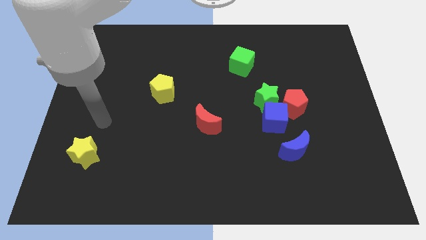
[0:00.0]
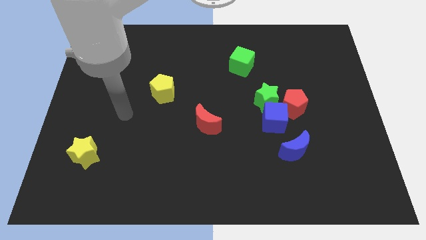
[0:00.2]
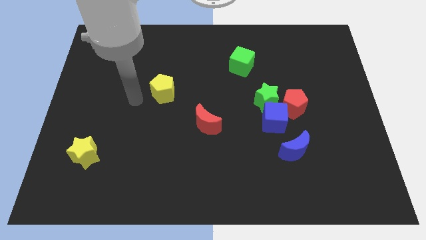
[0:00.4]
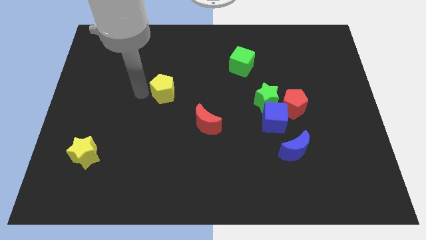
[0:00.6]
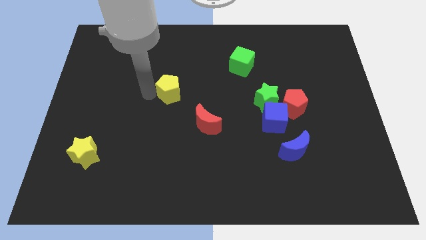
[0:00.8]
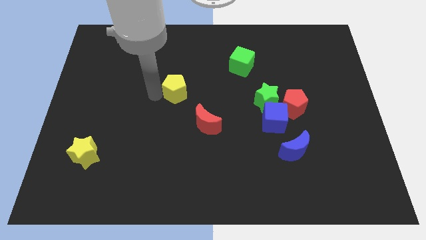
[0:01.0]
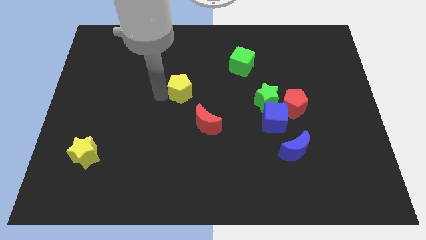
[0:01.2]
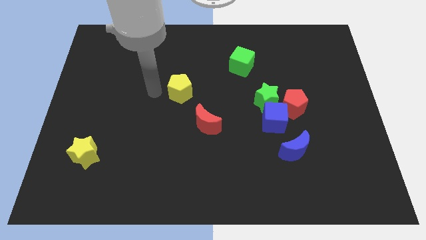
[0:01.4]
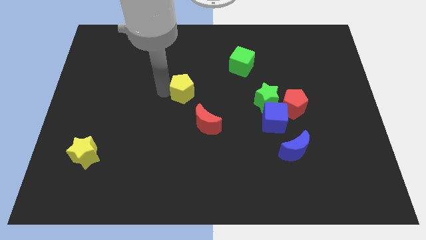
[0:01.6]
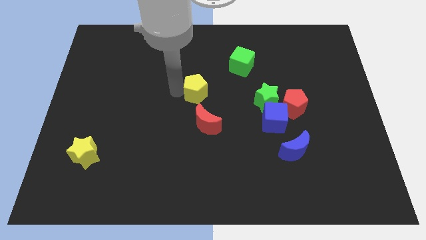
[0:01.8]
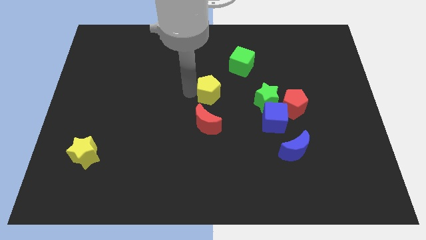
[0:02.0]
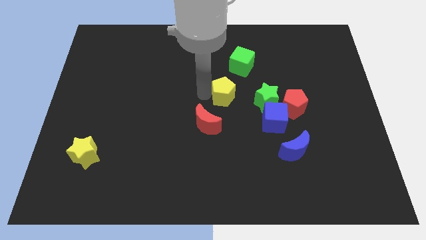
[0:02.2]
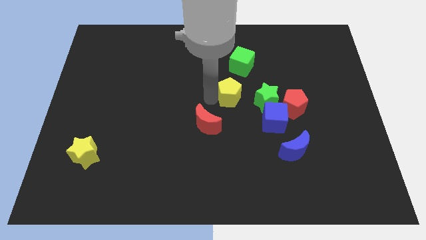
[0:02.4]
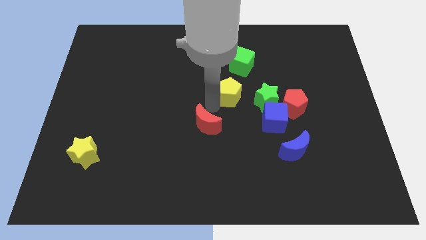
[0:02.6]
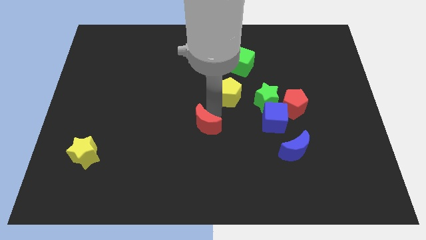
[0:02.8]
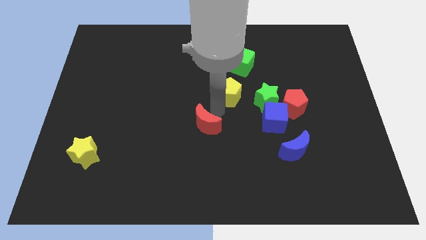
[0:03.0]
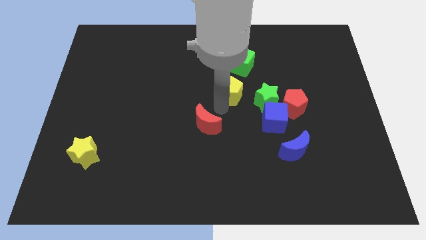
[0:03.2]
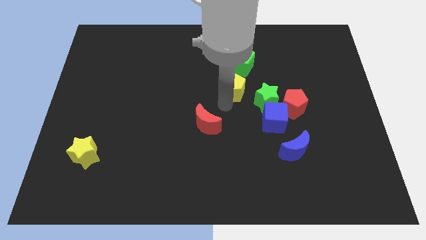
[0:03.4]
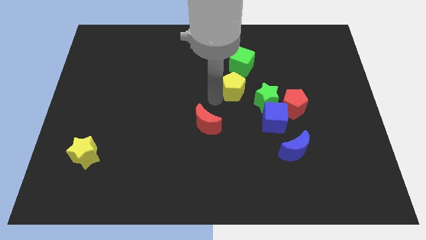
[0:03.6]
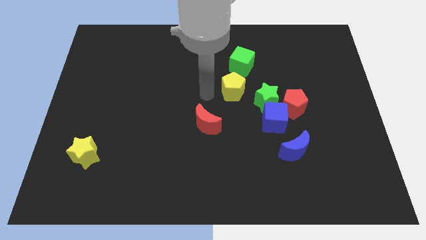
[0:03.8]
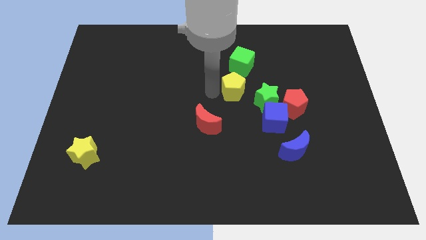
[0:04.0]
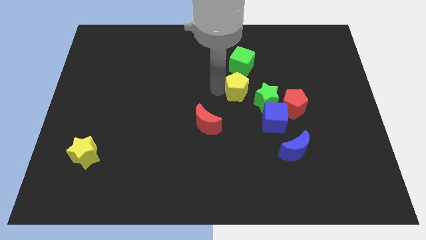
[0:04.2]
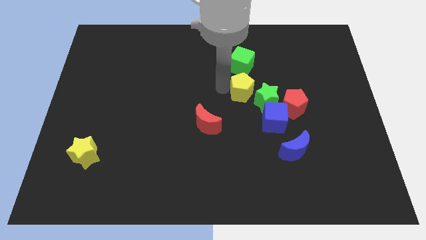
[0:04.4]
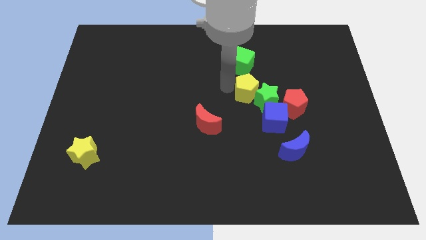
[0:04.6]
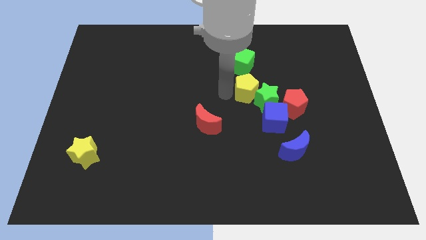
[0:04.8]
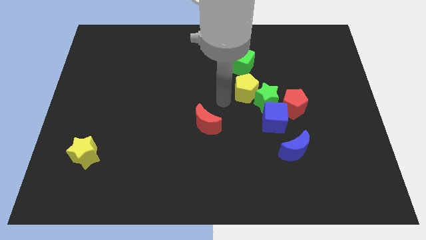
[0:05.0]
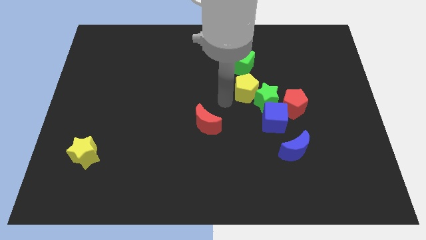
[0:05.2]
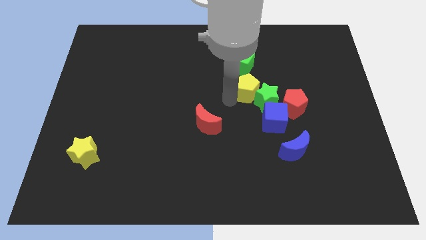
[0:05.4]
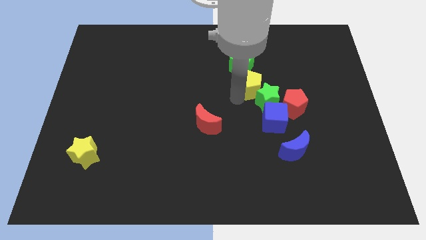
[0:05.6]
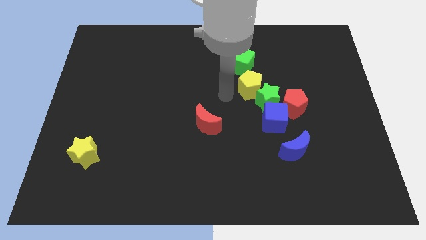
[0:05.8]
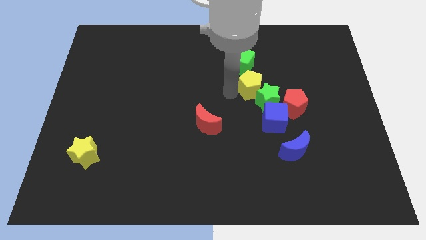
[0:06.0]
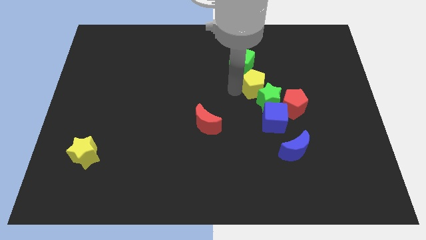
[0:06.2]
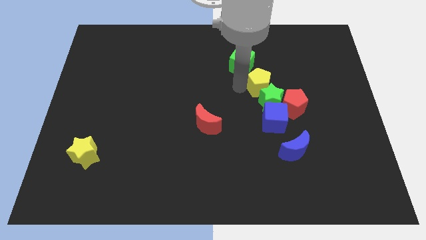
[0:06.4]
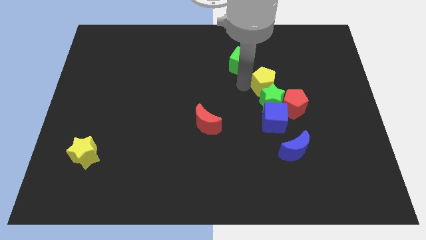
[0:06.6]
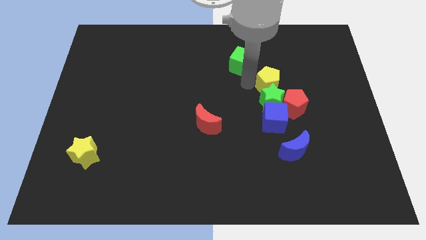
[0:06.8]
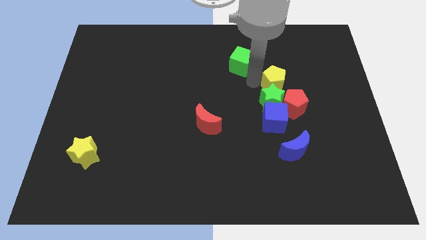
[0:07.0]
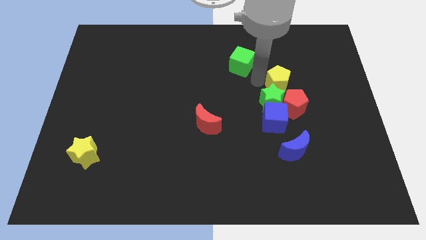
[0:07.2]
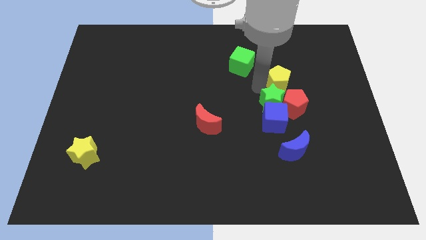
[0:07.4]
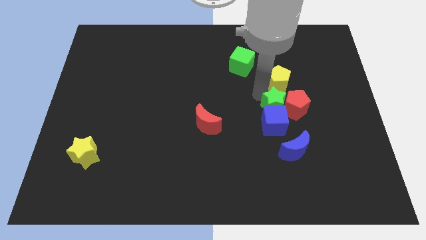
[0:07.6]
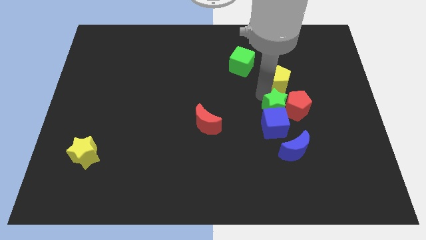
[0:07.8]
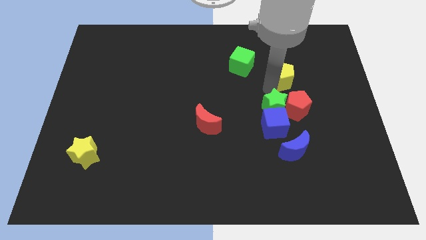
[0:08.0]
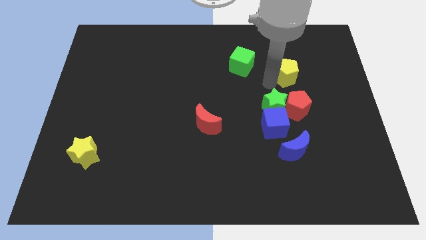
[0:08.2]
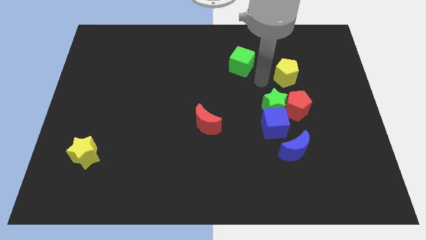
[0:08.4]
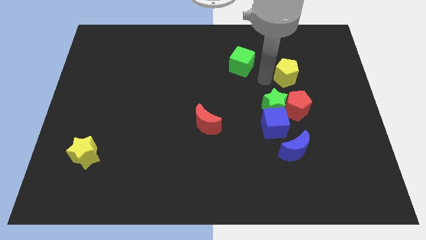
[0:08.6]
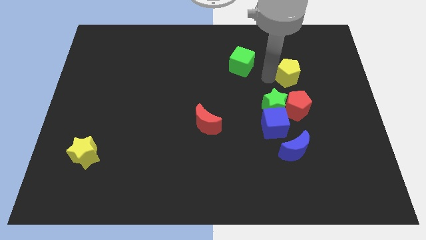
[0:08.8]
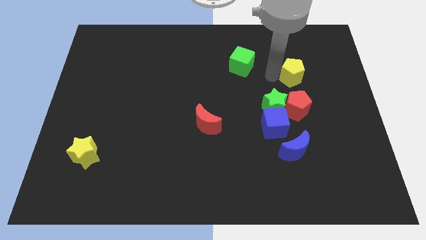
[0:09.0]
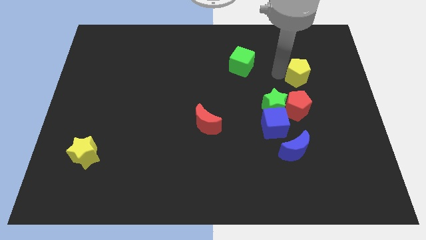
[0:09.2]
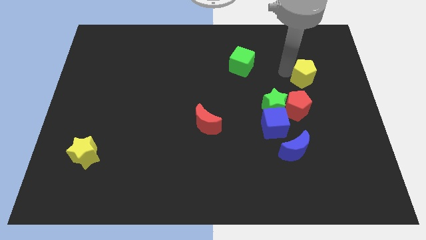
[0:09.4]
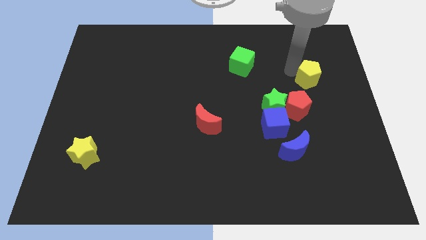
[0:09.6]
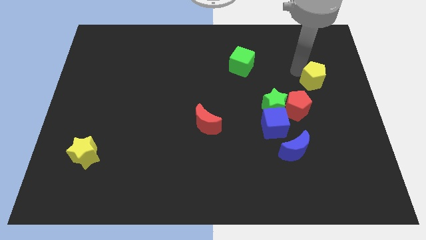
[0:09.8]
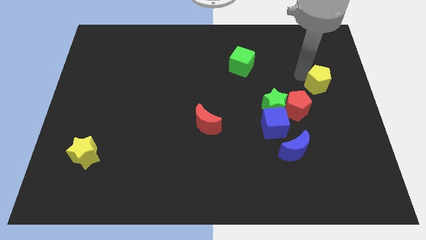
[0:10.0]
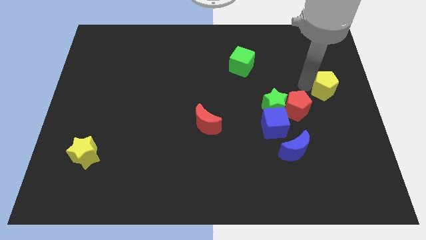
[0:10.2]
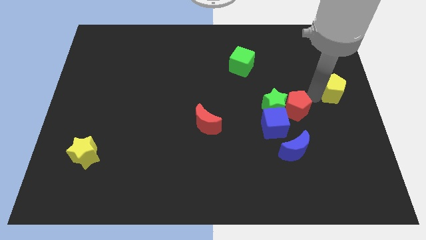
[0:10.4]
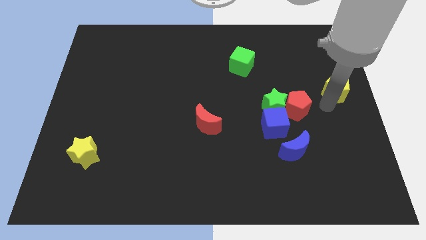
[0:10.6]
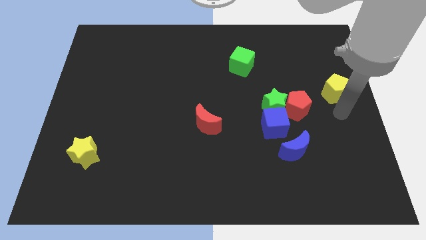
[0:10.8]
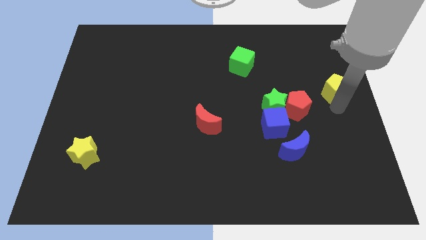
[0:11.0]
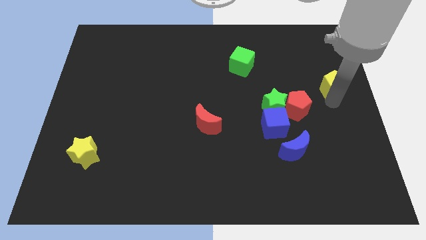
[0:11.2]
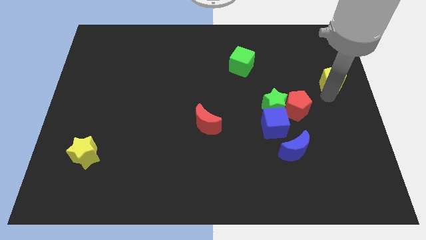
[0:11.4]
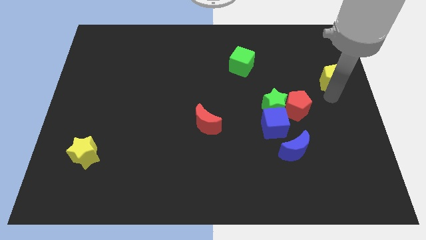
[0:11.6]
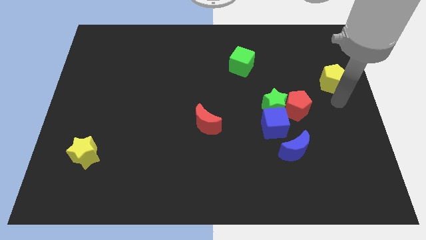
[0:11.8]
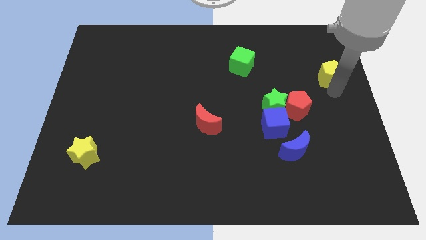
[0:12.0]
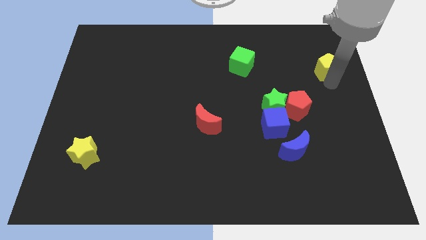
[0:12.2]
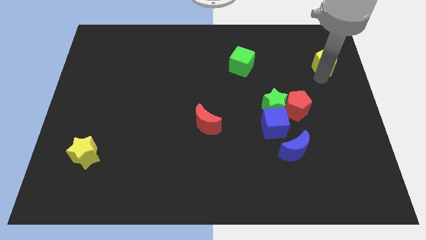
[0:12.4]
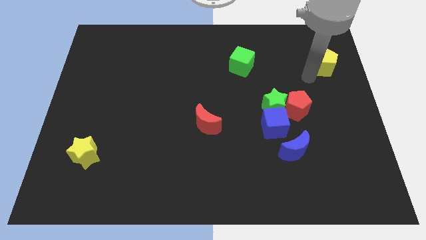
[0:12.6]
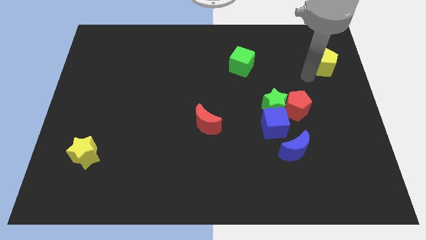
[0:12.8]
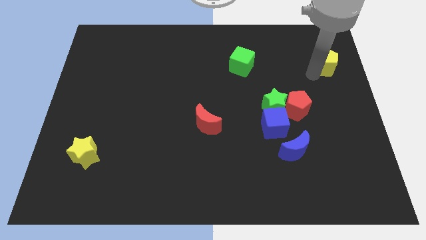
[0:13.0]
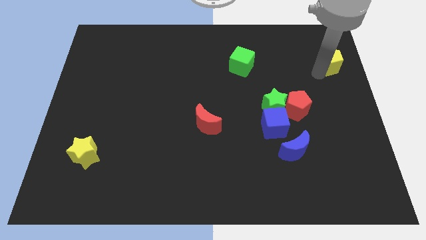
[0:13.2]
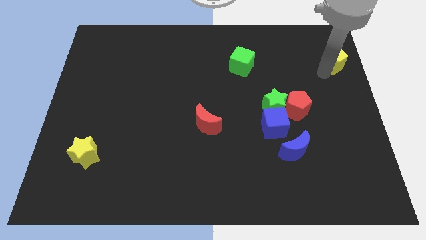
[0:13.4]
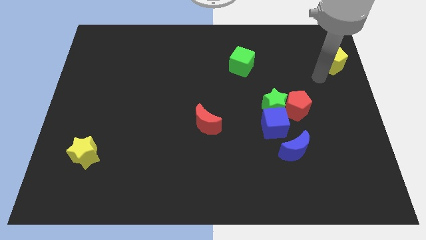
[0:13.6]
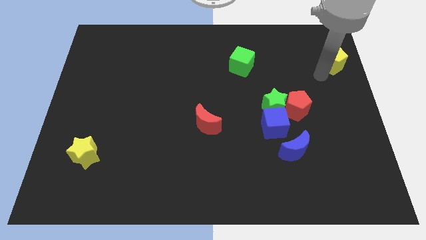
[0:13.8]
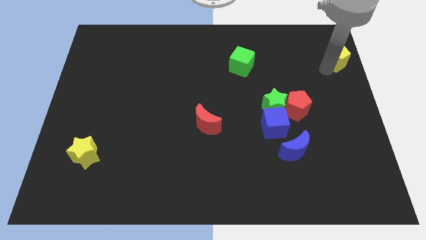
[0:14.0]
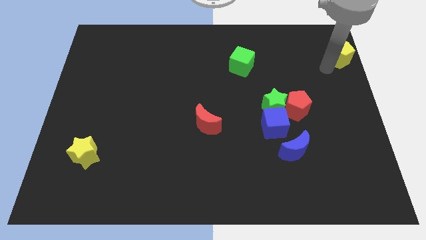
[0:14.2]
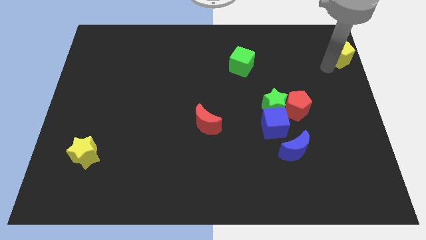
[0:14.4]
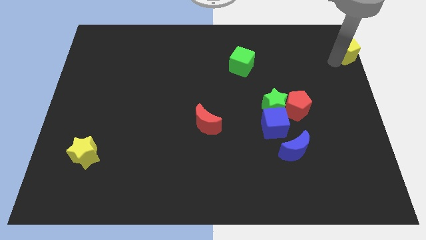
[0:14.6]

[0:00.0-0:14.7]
move the yellow pentagon to the upper right corner
